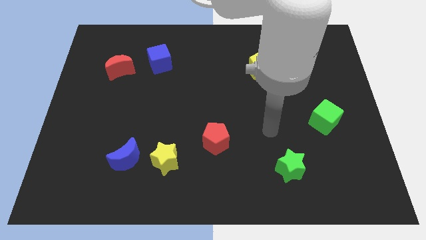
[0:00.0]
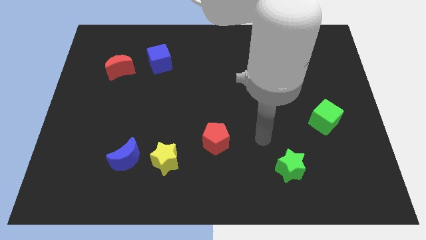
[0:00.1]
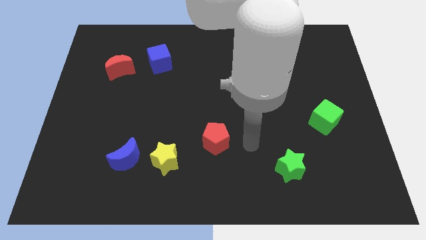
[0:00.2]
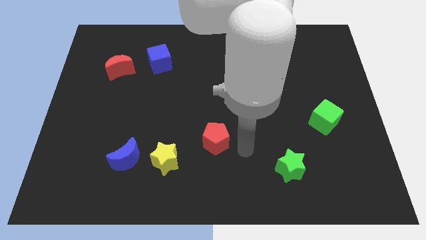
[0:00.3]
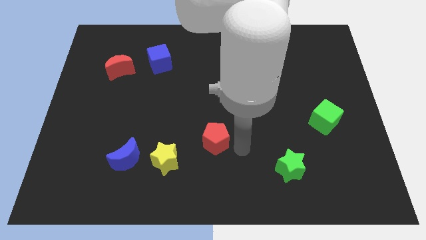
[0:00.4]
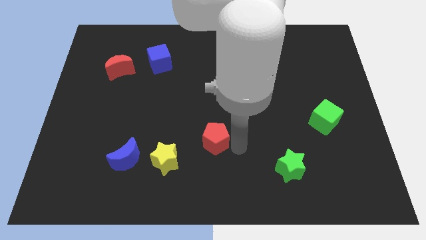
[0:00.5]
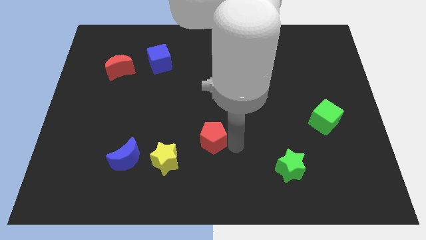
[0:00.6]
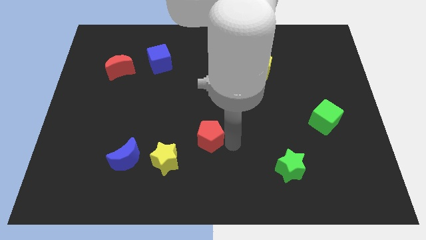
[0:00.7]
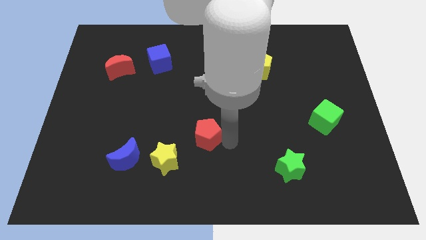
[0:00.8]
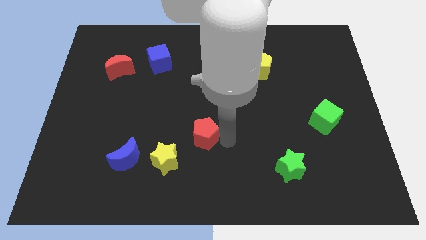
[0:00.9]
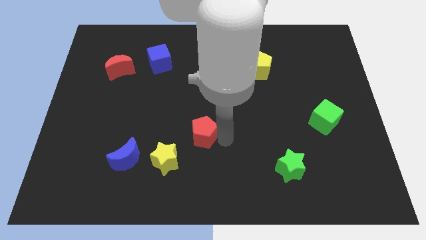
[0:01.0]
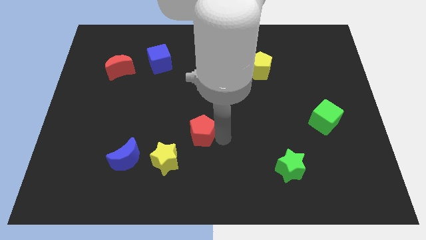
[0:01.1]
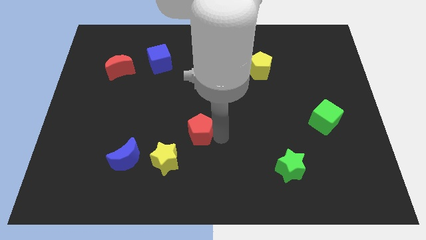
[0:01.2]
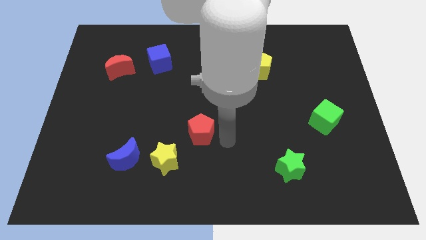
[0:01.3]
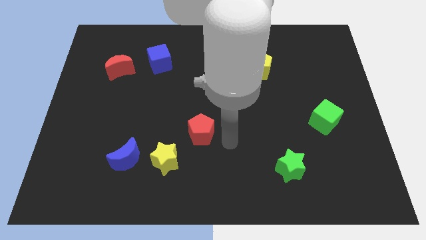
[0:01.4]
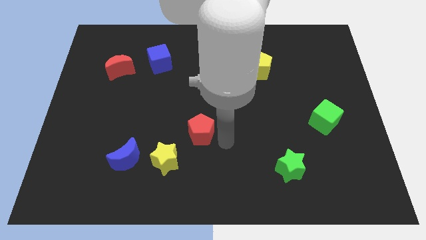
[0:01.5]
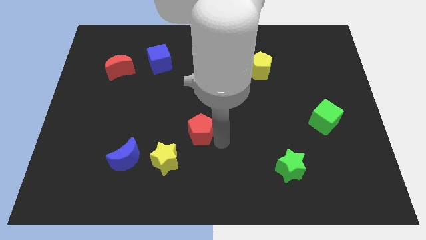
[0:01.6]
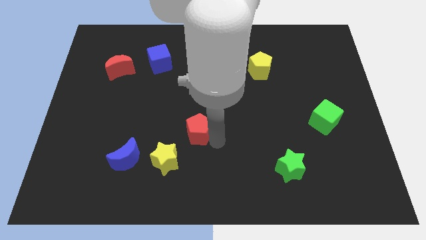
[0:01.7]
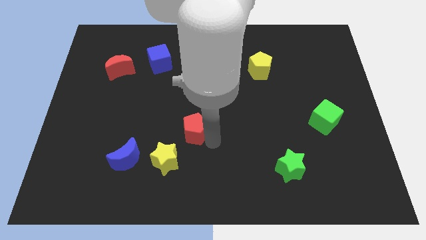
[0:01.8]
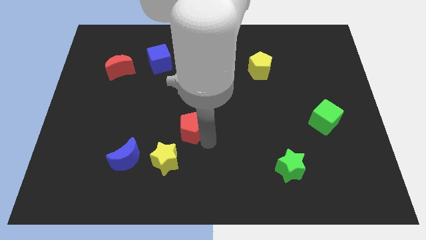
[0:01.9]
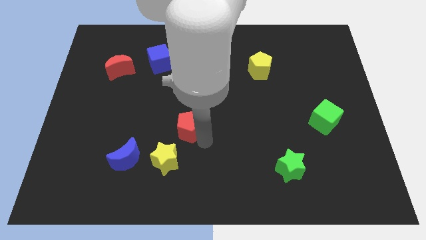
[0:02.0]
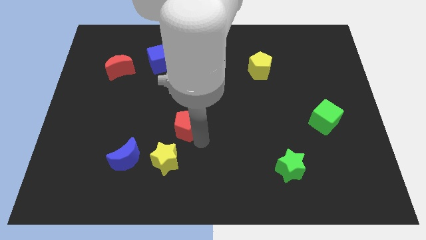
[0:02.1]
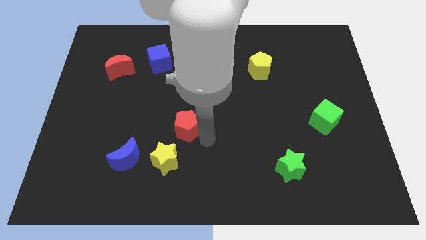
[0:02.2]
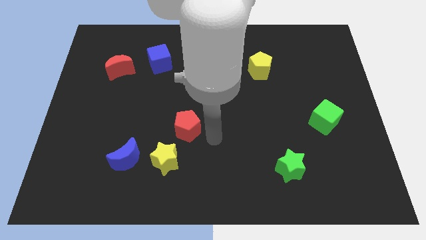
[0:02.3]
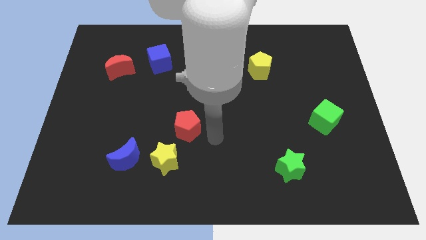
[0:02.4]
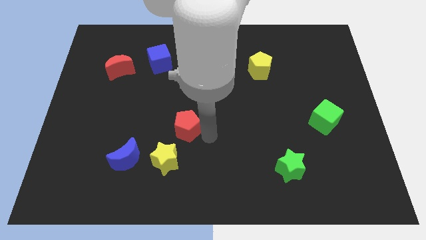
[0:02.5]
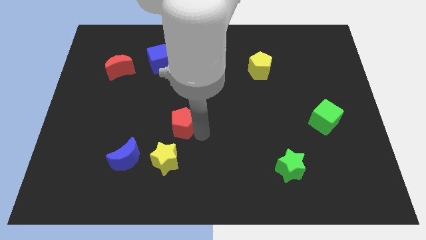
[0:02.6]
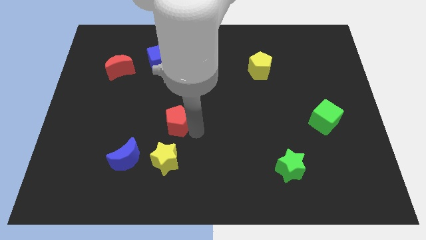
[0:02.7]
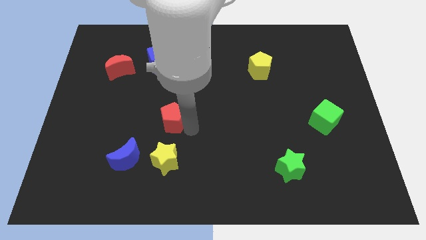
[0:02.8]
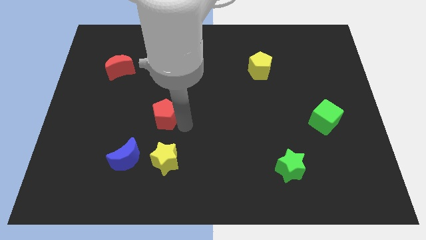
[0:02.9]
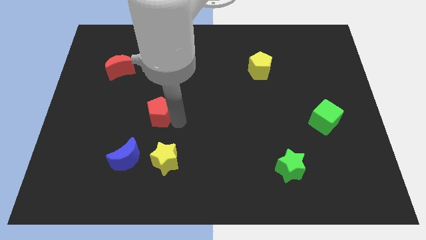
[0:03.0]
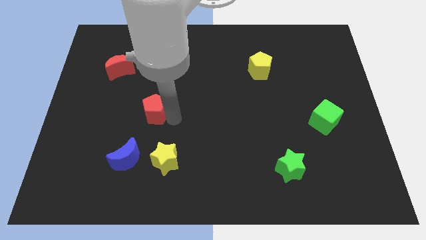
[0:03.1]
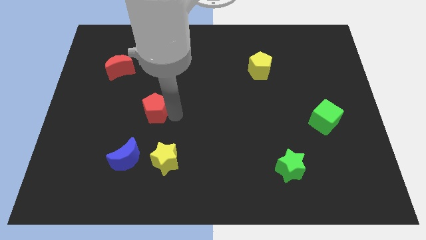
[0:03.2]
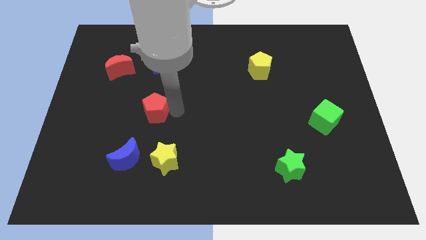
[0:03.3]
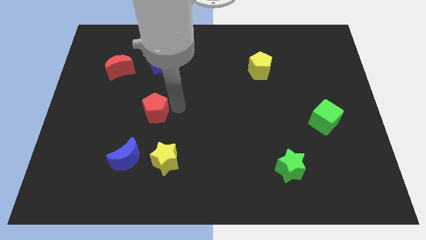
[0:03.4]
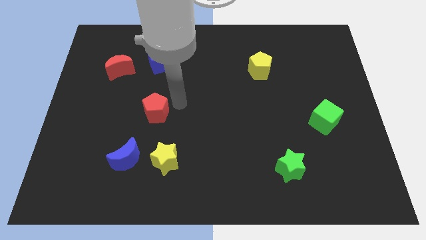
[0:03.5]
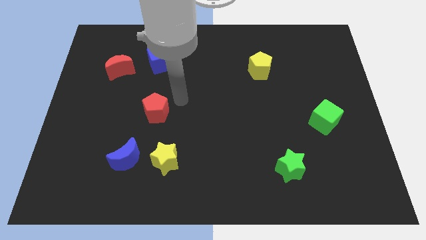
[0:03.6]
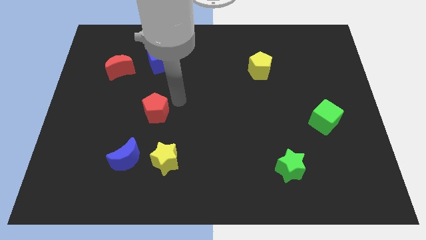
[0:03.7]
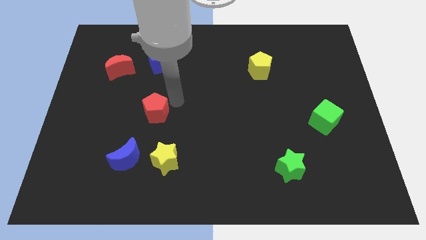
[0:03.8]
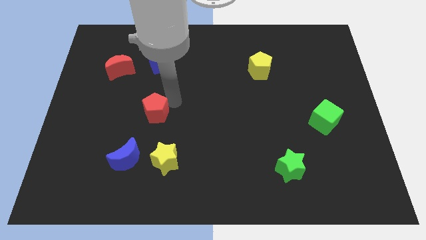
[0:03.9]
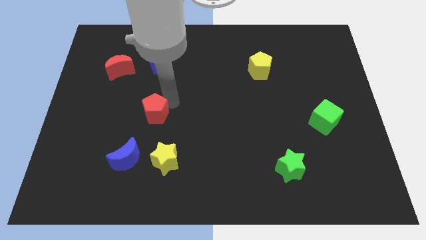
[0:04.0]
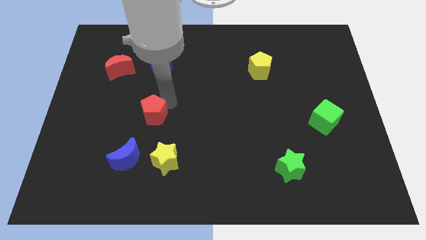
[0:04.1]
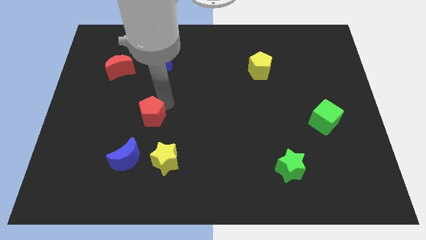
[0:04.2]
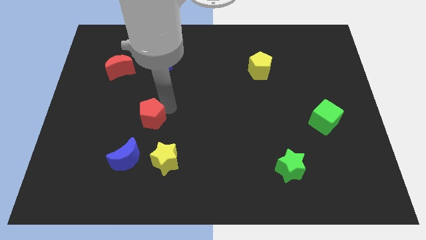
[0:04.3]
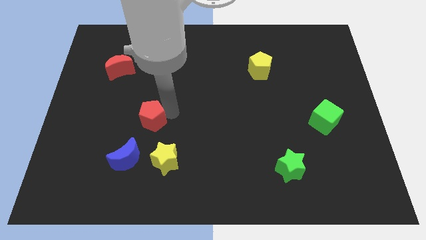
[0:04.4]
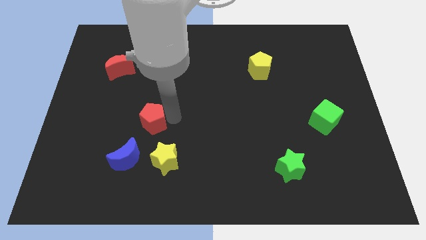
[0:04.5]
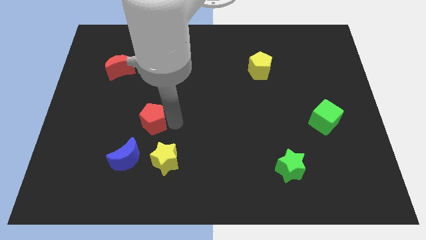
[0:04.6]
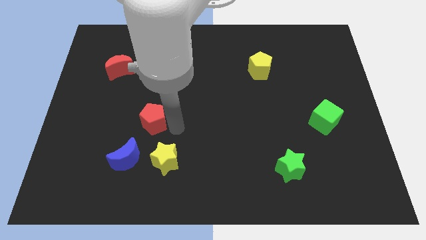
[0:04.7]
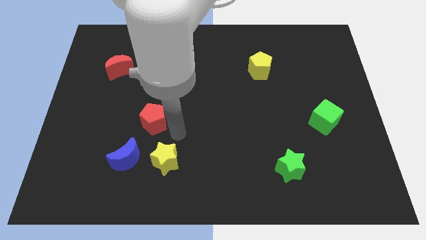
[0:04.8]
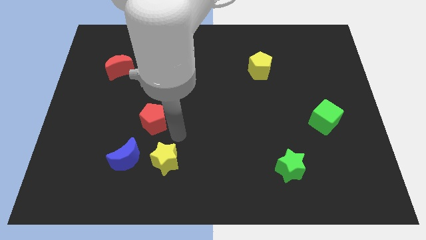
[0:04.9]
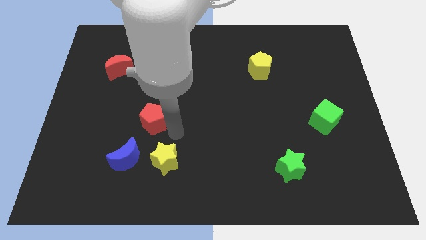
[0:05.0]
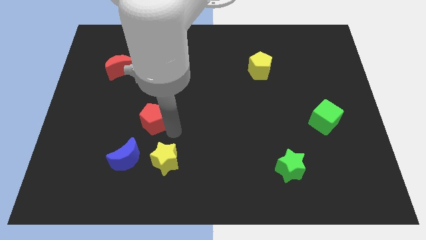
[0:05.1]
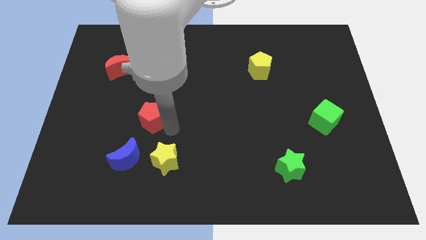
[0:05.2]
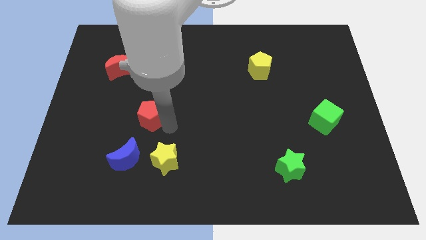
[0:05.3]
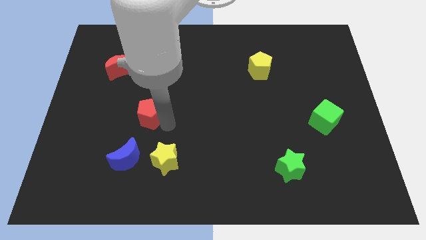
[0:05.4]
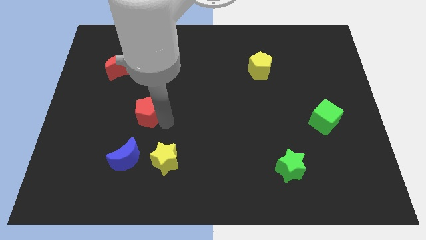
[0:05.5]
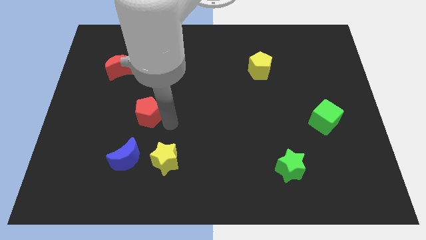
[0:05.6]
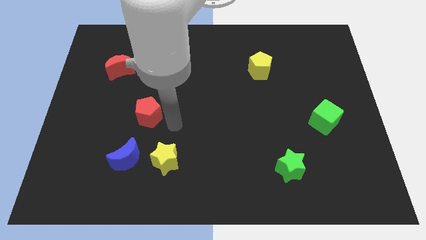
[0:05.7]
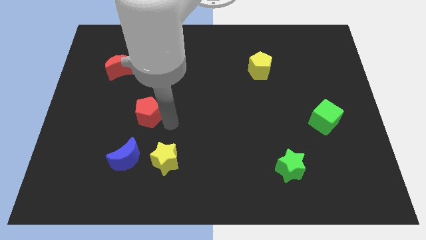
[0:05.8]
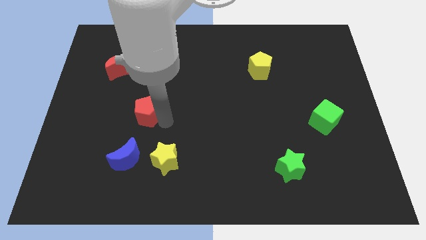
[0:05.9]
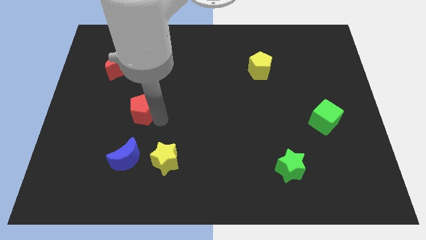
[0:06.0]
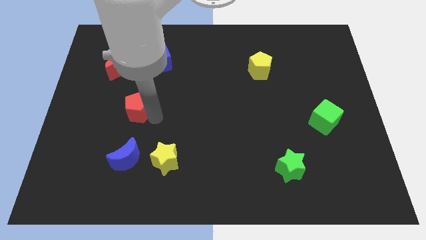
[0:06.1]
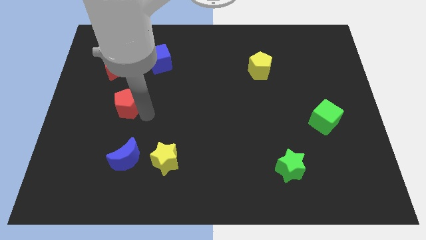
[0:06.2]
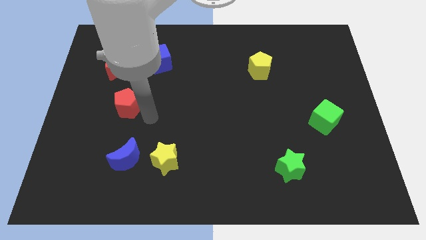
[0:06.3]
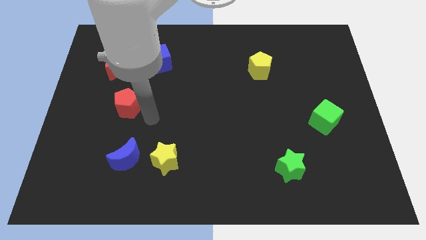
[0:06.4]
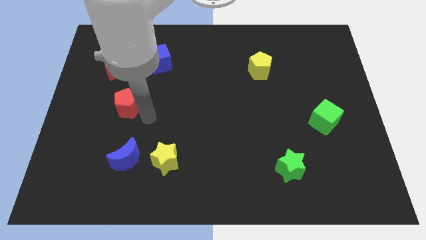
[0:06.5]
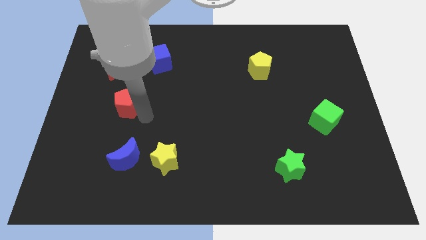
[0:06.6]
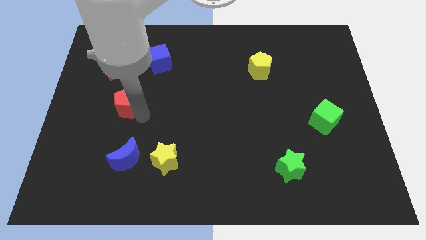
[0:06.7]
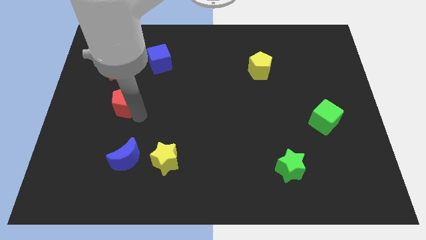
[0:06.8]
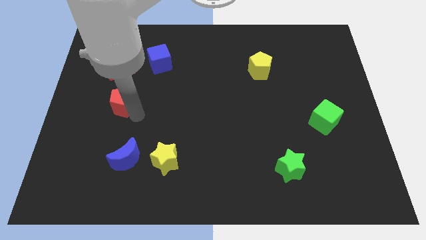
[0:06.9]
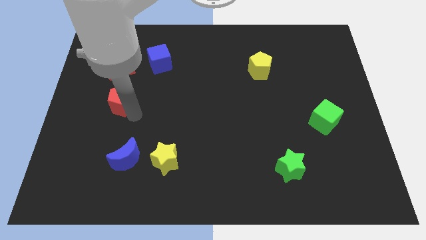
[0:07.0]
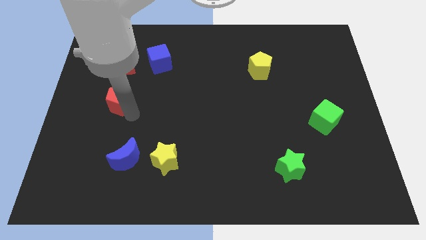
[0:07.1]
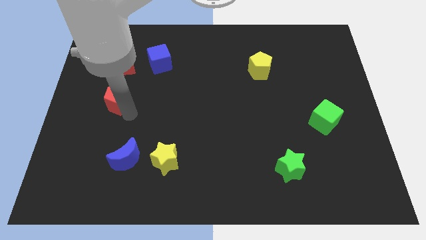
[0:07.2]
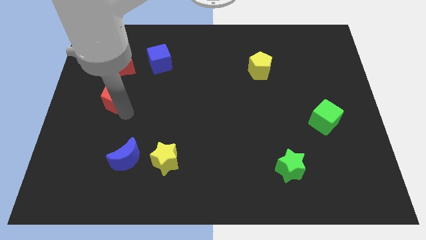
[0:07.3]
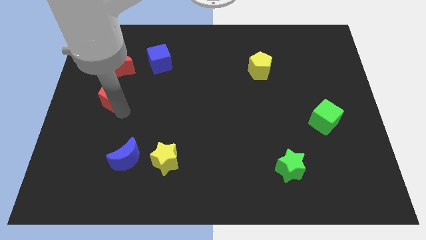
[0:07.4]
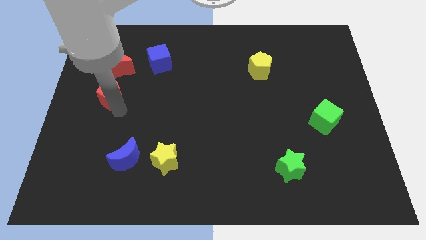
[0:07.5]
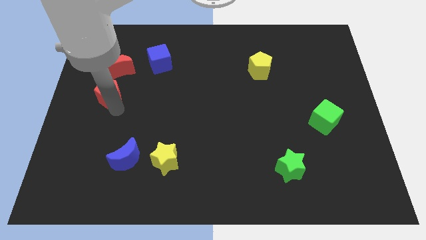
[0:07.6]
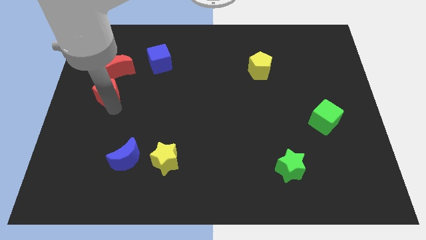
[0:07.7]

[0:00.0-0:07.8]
put the red pentagon diagonally down and to the left of the red moon
